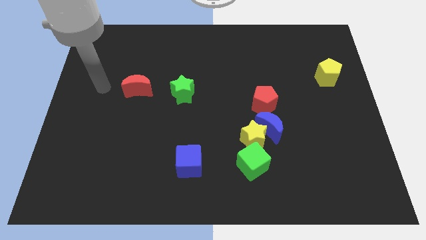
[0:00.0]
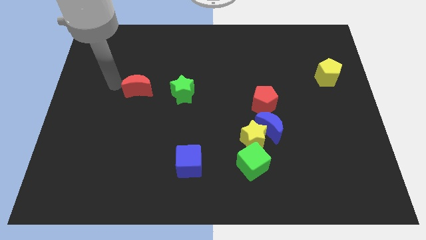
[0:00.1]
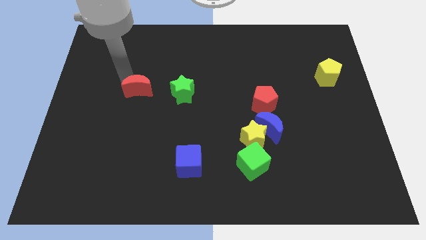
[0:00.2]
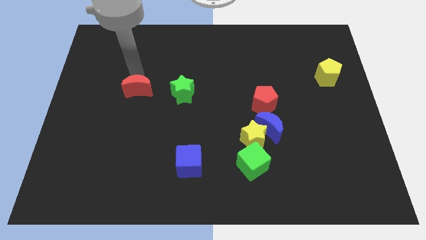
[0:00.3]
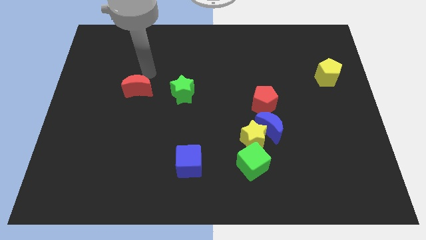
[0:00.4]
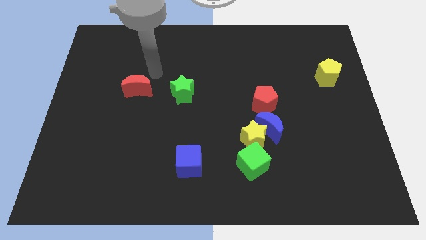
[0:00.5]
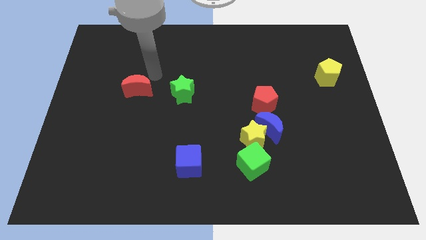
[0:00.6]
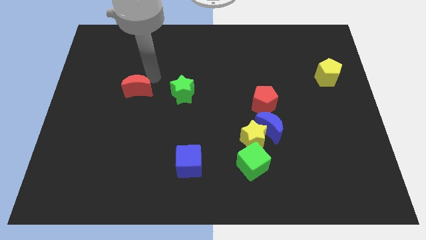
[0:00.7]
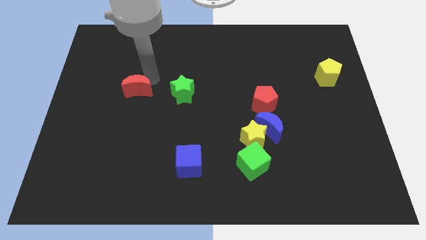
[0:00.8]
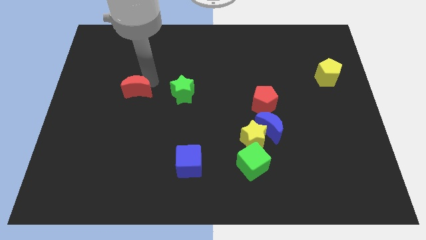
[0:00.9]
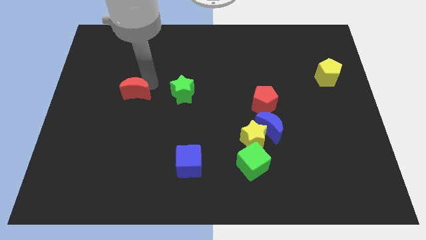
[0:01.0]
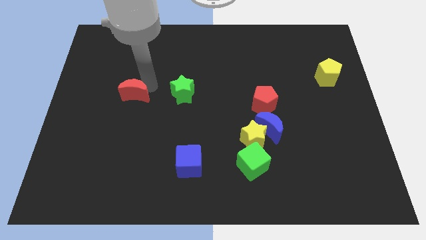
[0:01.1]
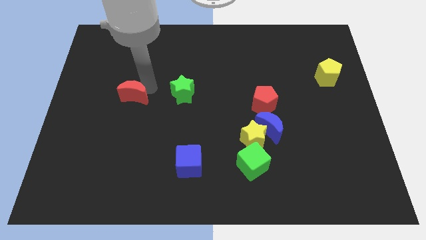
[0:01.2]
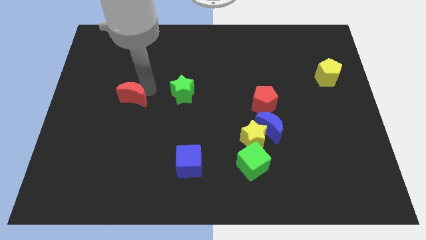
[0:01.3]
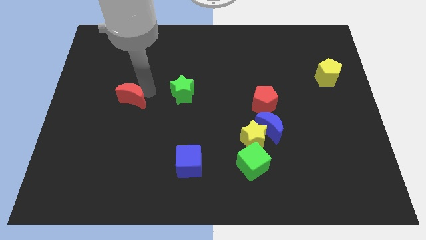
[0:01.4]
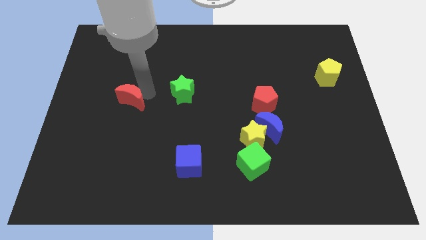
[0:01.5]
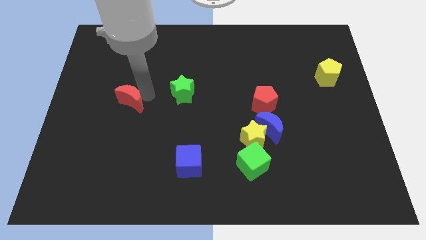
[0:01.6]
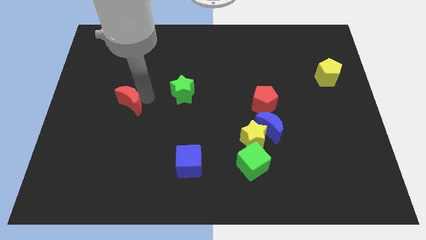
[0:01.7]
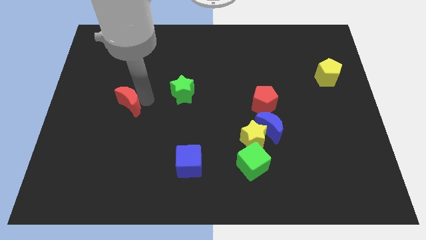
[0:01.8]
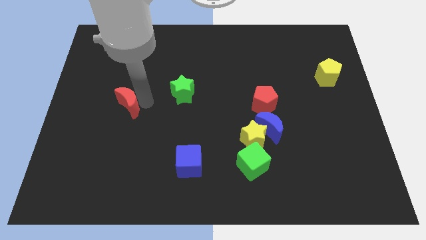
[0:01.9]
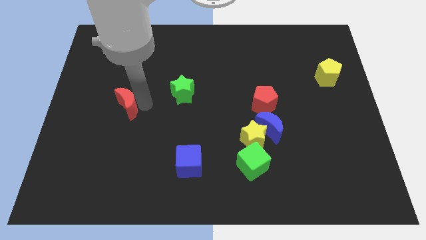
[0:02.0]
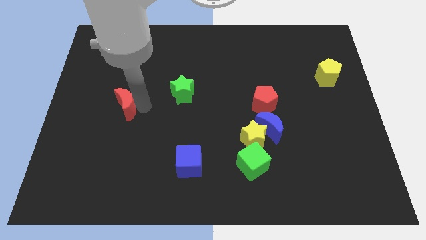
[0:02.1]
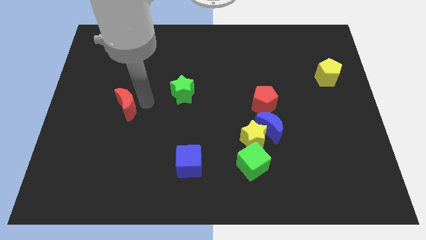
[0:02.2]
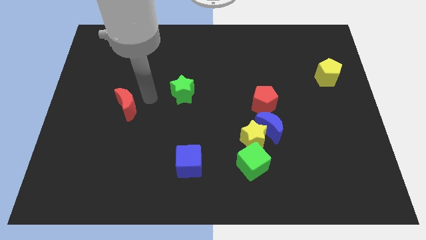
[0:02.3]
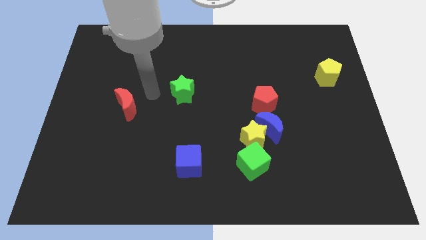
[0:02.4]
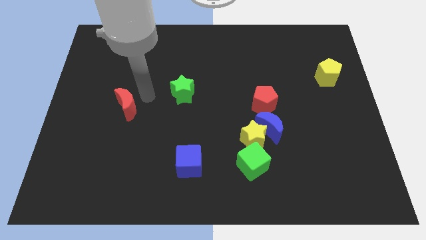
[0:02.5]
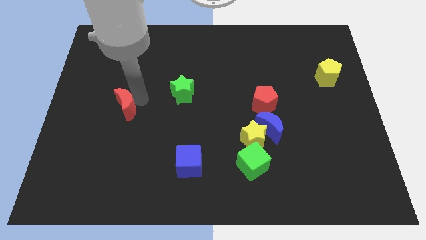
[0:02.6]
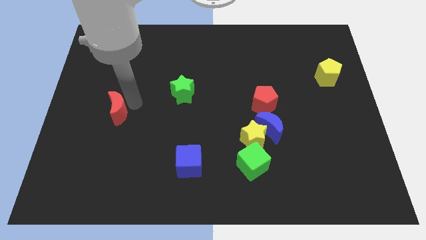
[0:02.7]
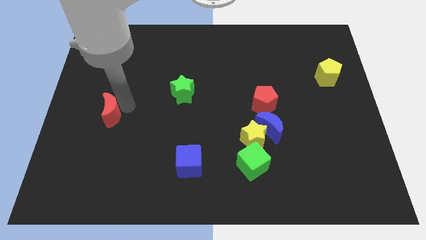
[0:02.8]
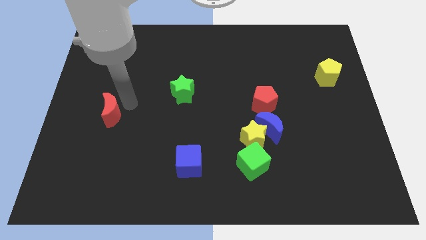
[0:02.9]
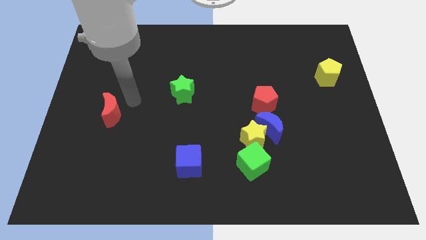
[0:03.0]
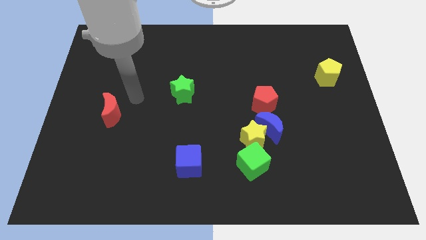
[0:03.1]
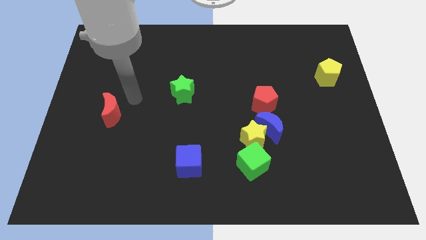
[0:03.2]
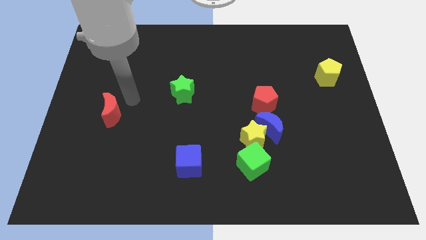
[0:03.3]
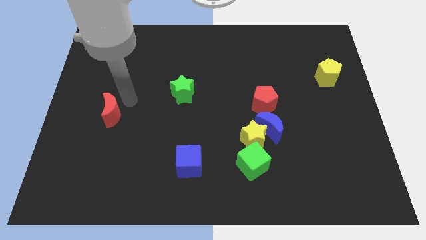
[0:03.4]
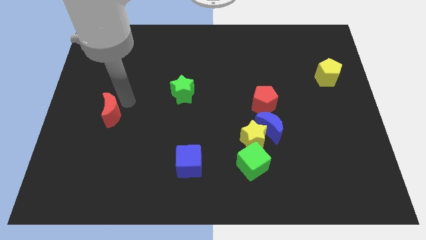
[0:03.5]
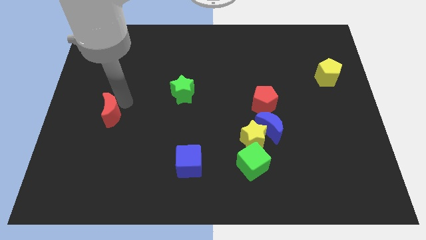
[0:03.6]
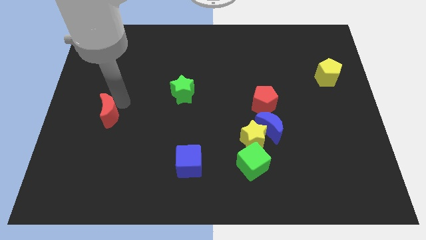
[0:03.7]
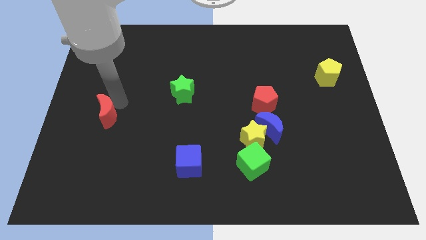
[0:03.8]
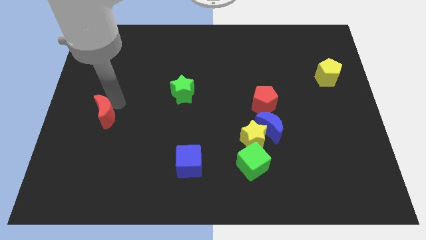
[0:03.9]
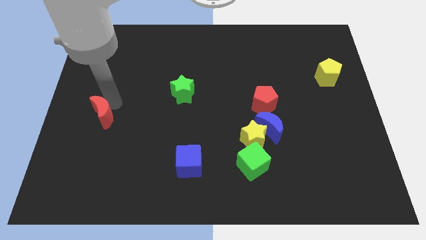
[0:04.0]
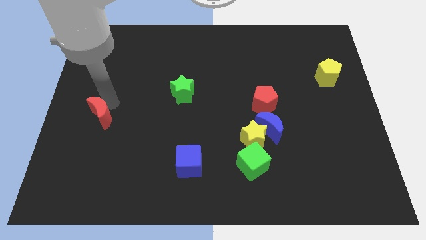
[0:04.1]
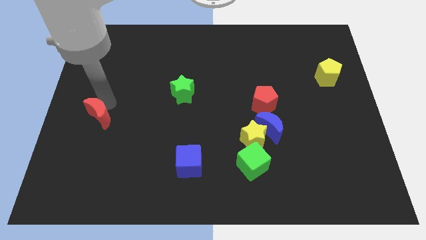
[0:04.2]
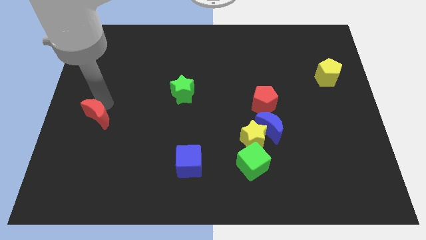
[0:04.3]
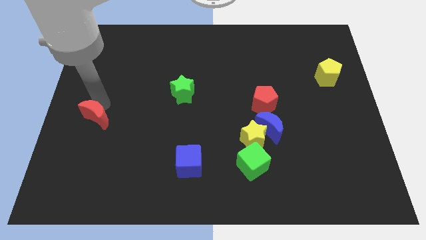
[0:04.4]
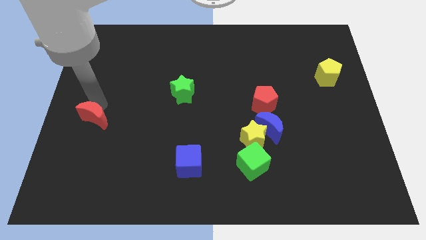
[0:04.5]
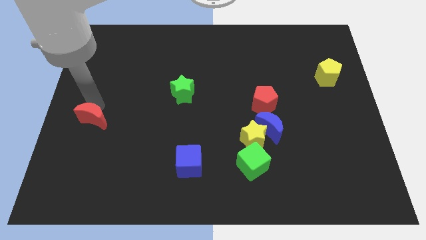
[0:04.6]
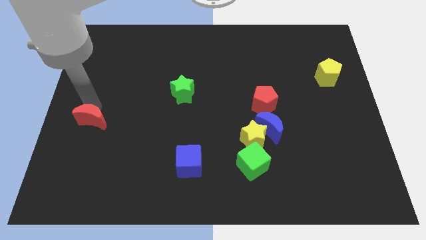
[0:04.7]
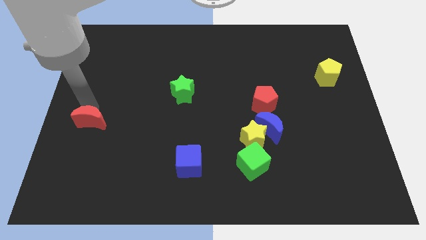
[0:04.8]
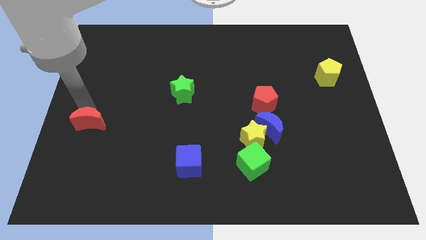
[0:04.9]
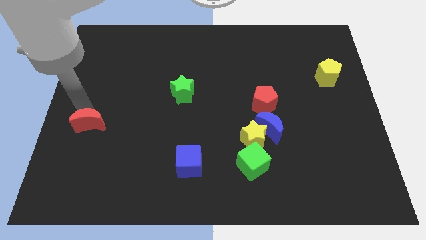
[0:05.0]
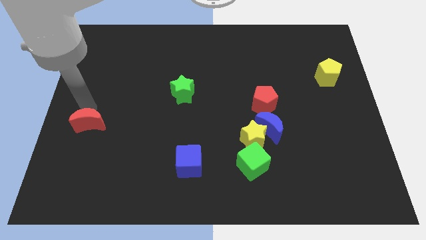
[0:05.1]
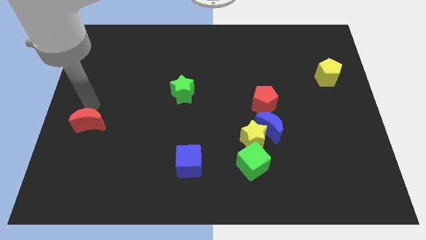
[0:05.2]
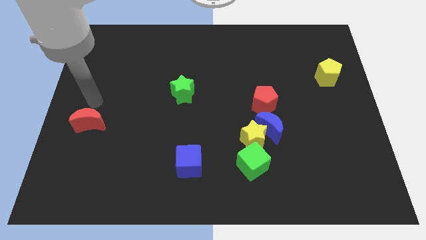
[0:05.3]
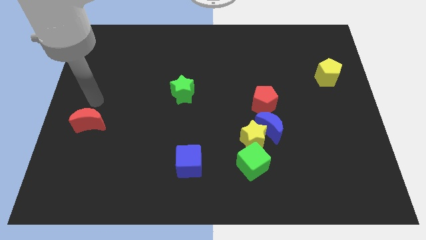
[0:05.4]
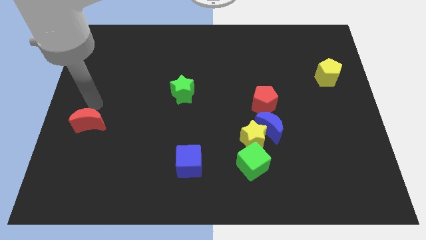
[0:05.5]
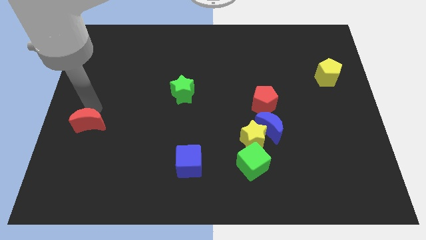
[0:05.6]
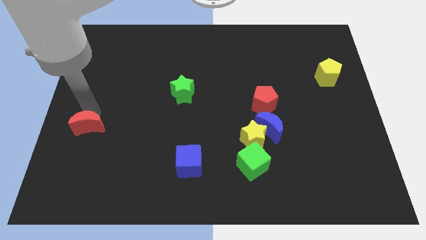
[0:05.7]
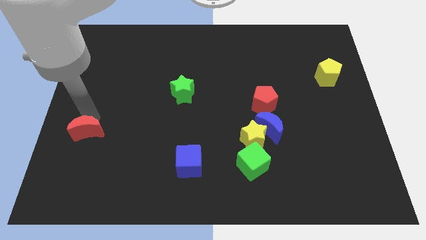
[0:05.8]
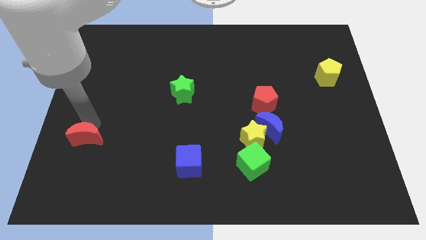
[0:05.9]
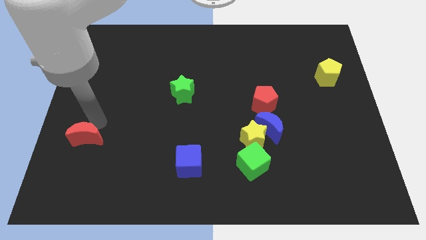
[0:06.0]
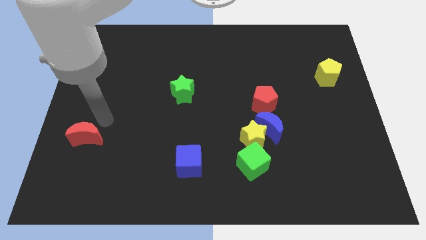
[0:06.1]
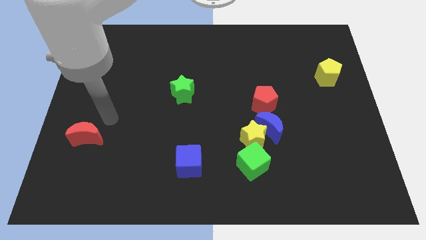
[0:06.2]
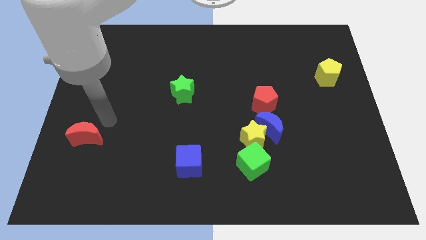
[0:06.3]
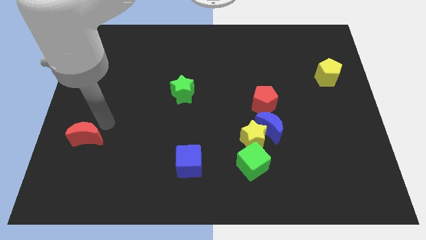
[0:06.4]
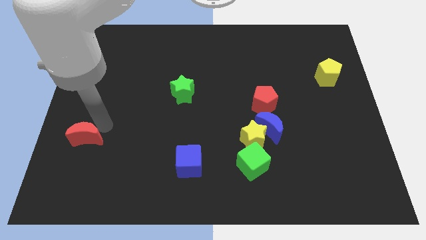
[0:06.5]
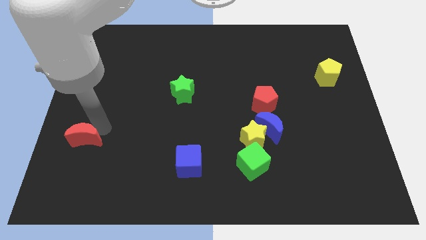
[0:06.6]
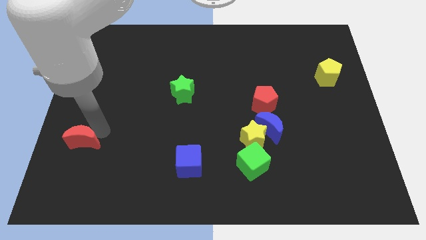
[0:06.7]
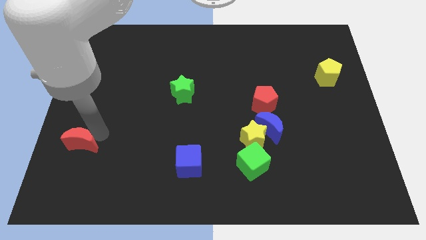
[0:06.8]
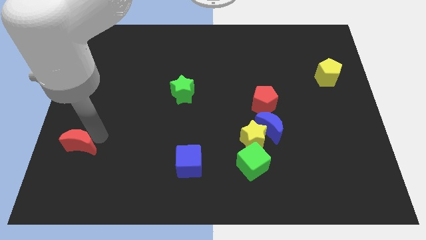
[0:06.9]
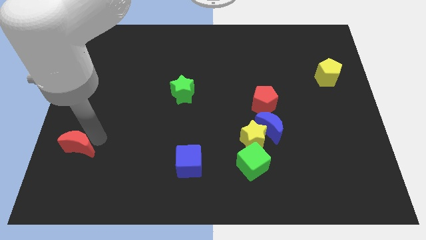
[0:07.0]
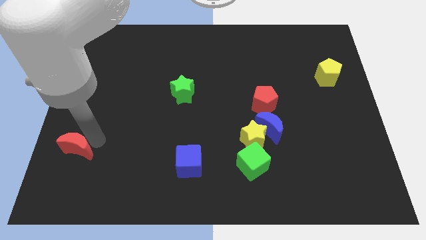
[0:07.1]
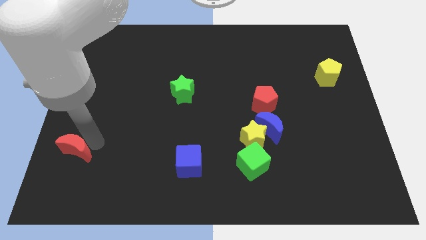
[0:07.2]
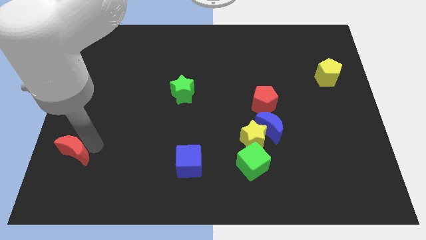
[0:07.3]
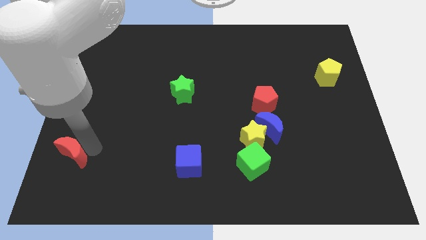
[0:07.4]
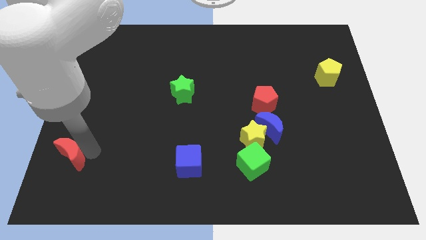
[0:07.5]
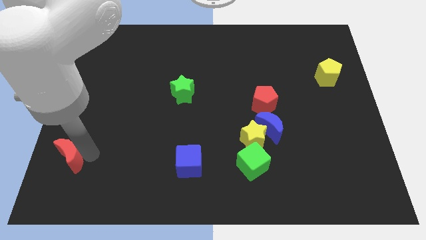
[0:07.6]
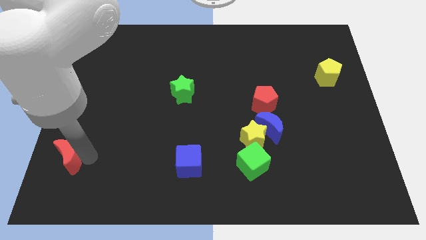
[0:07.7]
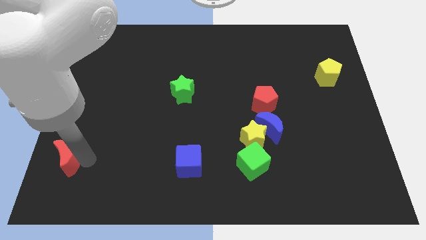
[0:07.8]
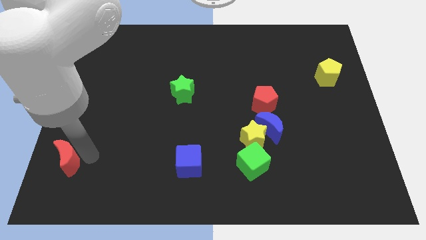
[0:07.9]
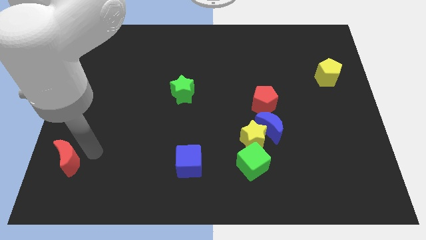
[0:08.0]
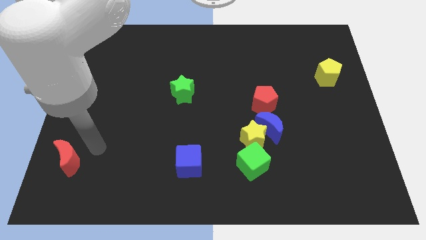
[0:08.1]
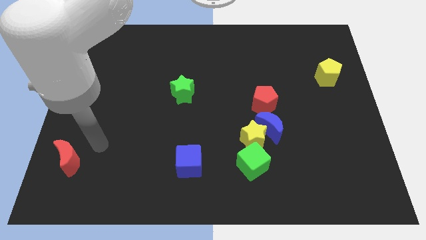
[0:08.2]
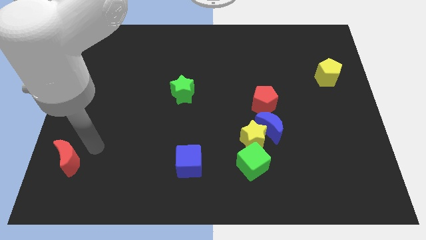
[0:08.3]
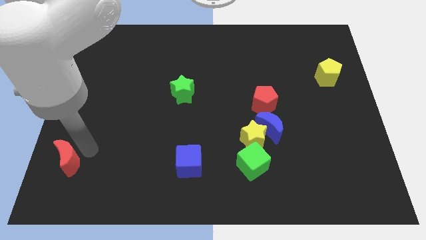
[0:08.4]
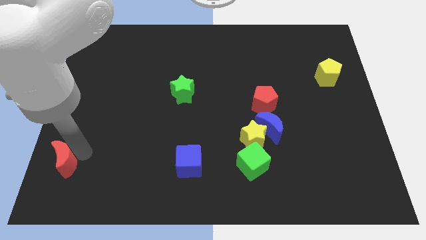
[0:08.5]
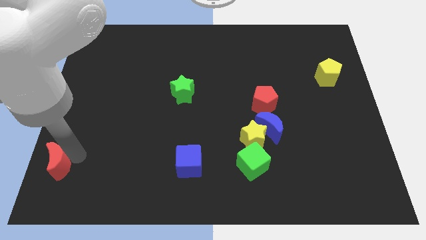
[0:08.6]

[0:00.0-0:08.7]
slide the red moon to the bottom left
